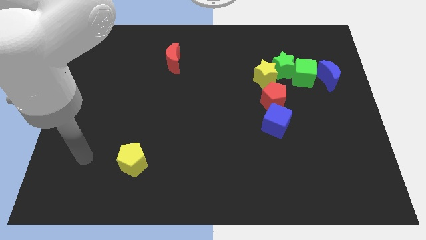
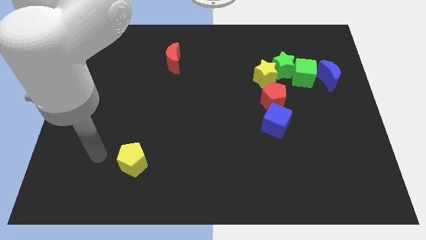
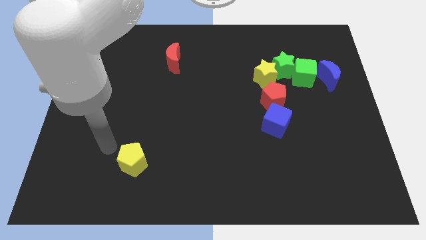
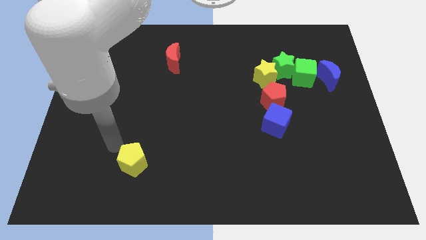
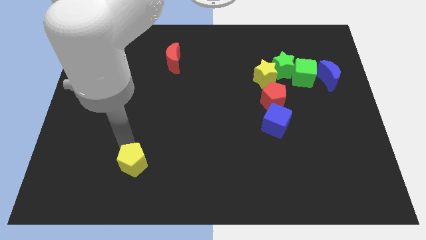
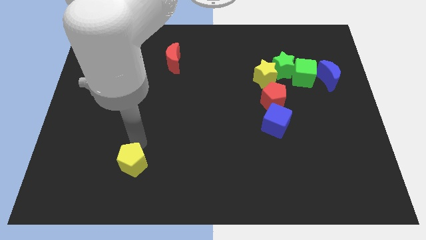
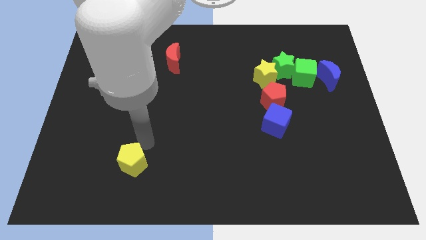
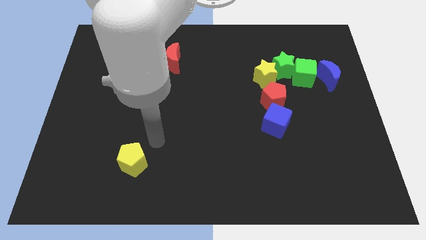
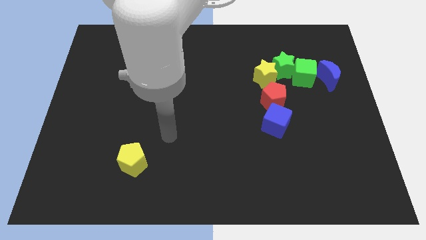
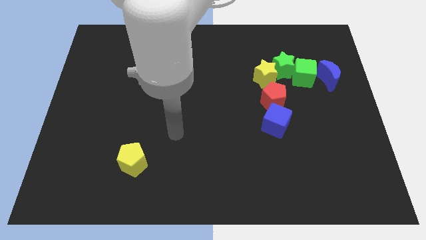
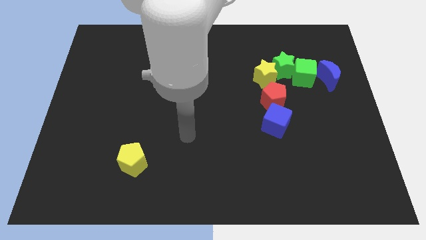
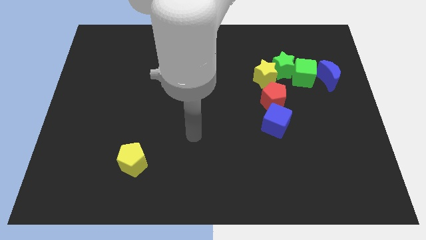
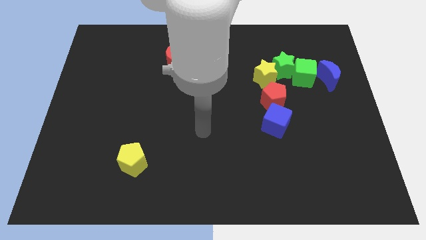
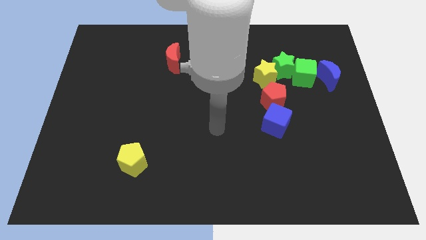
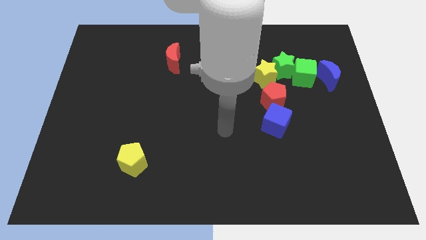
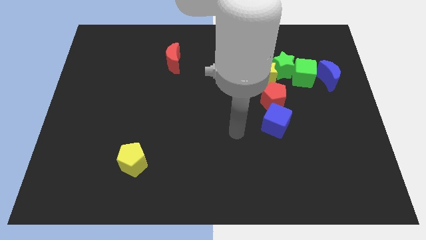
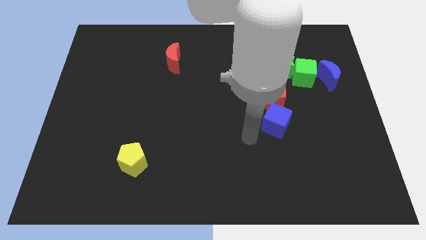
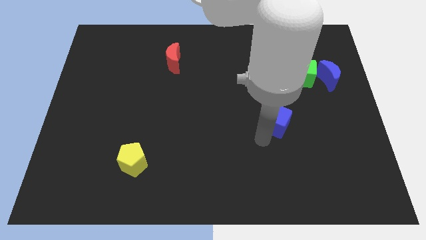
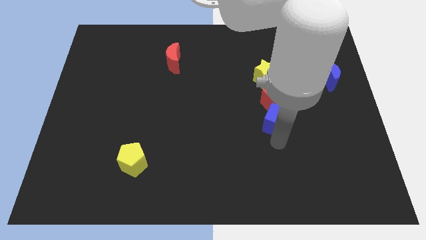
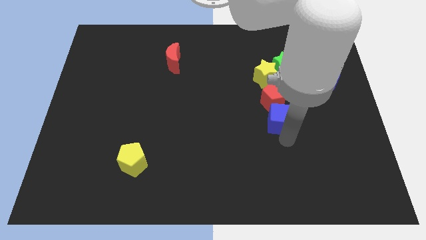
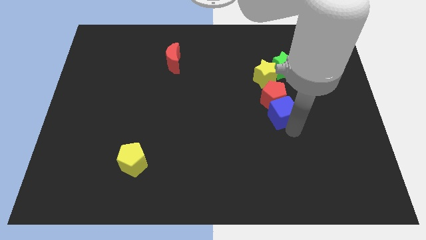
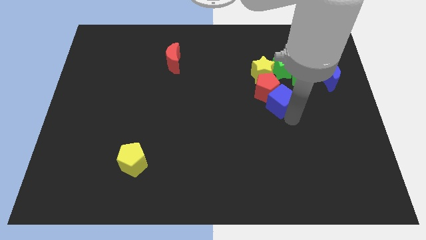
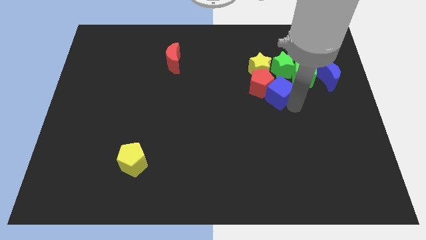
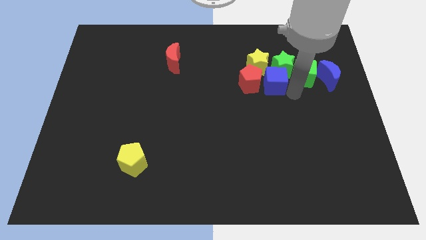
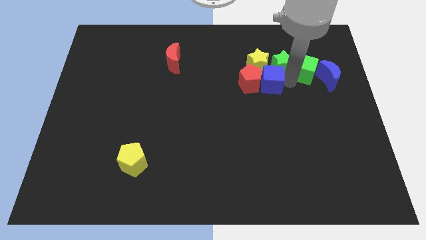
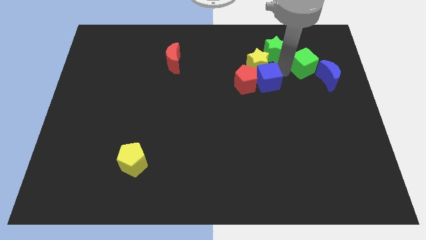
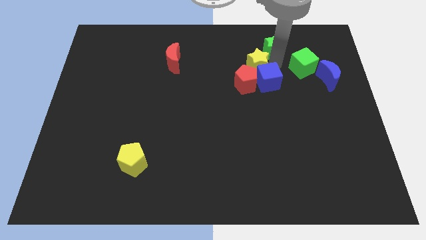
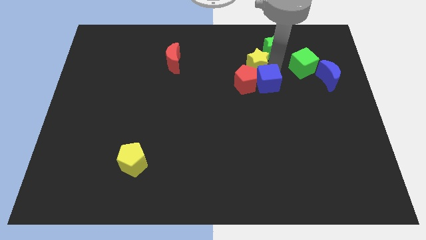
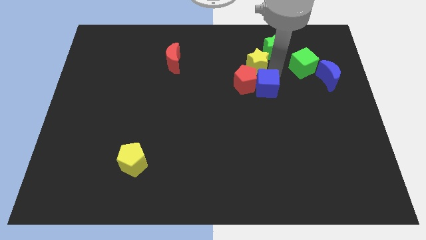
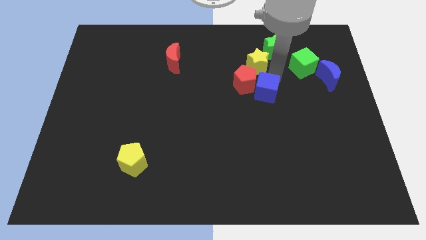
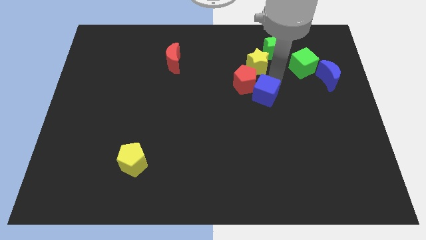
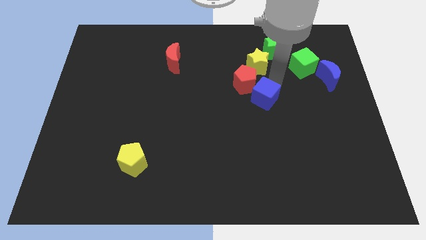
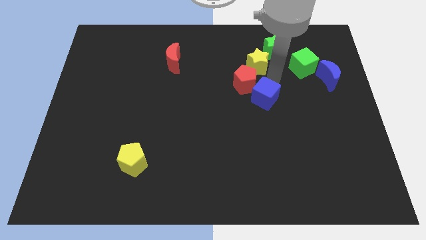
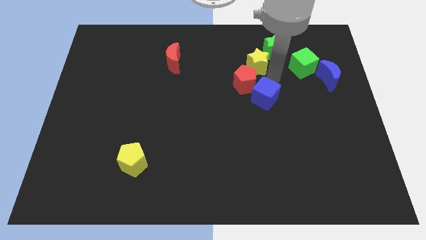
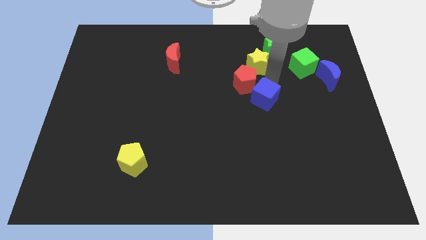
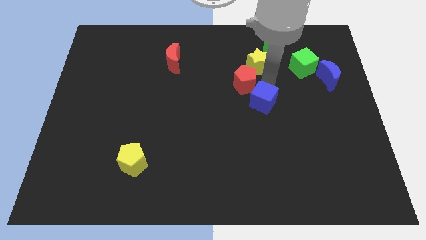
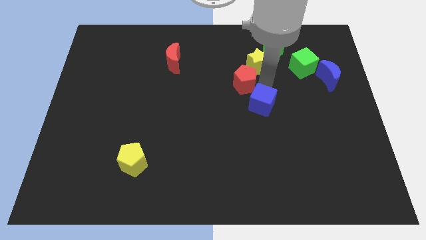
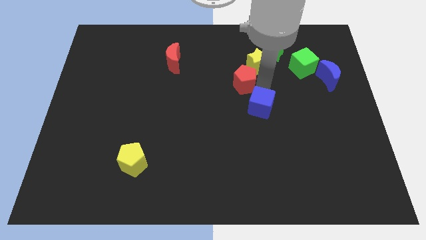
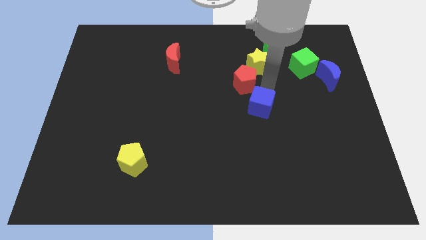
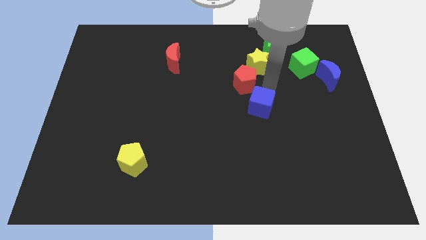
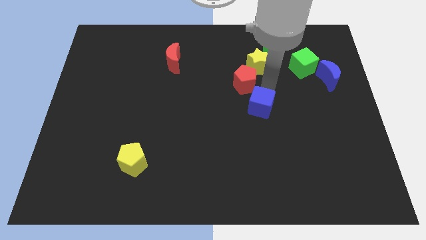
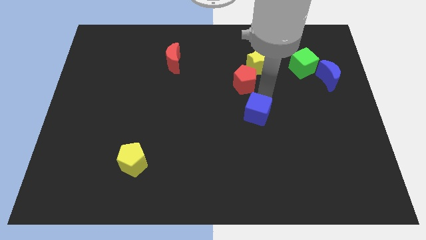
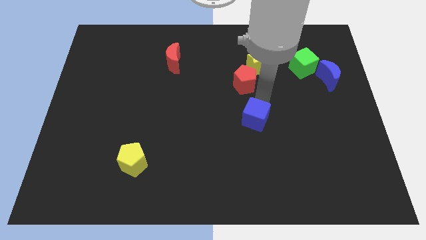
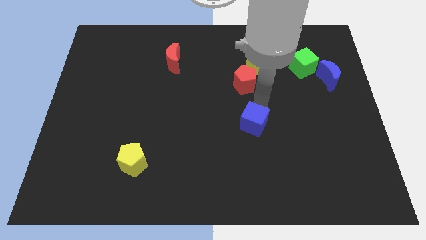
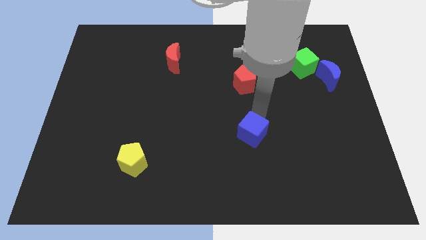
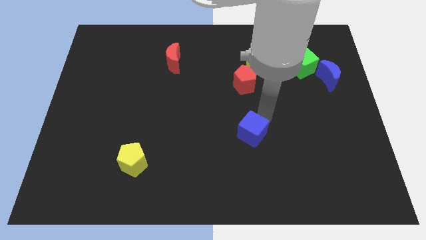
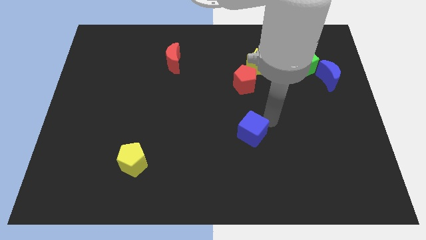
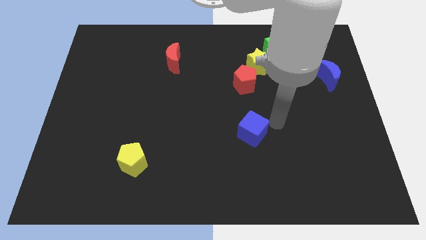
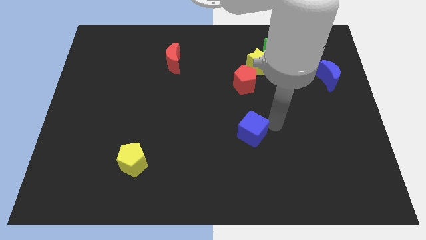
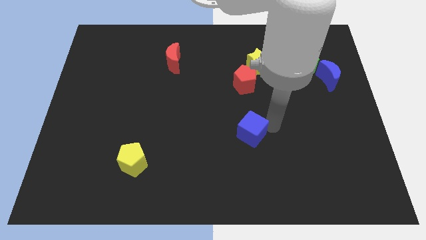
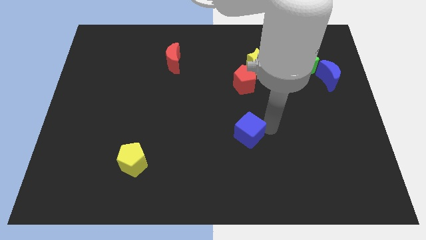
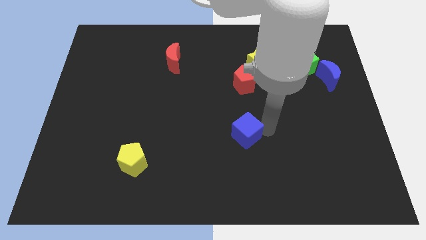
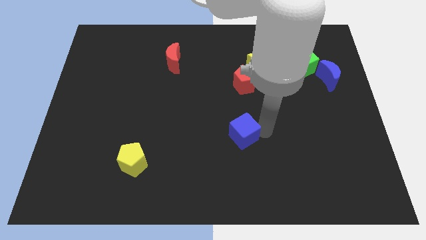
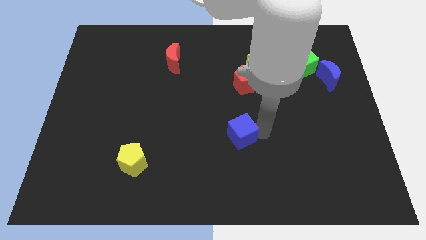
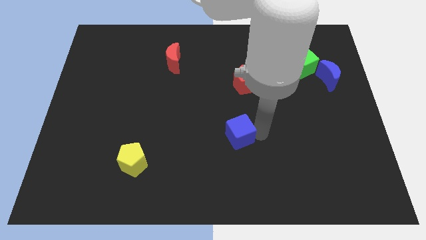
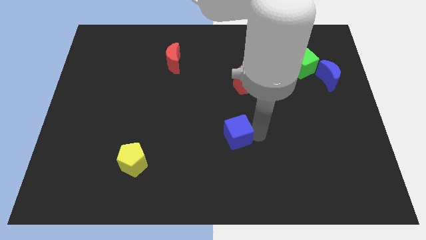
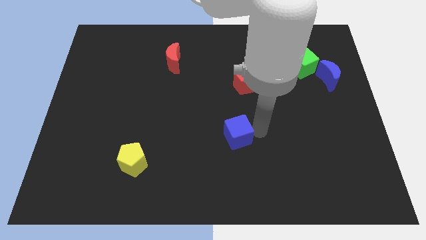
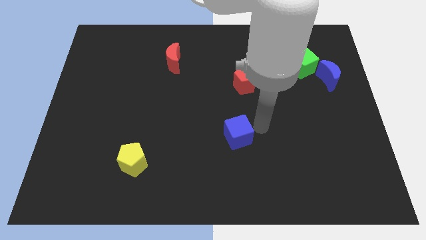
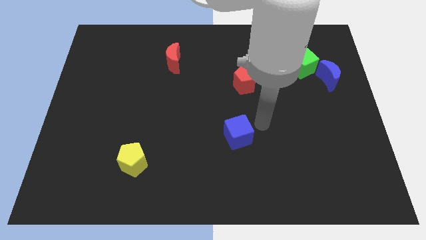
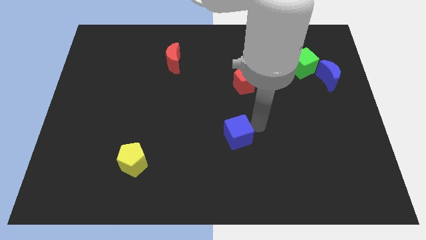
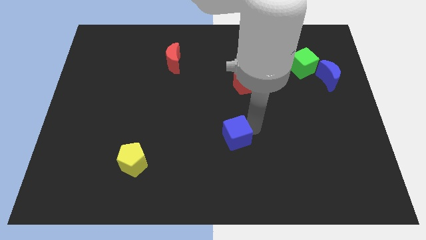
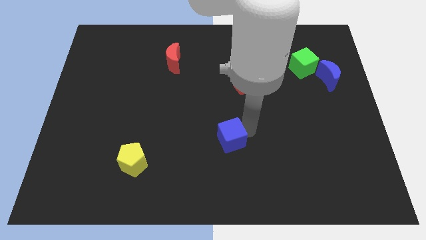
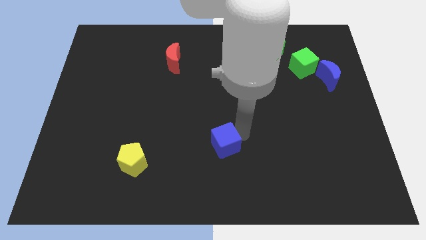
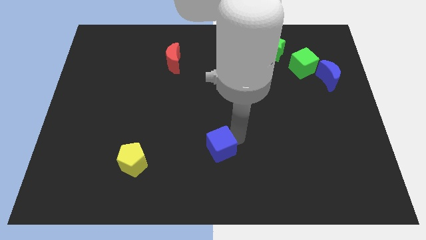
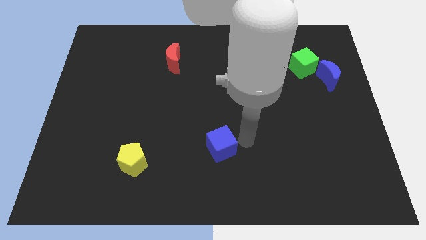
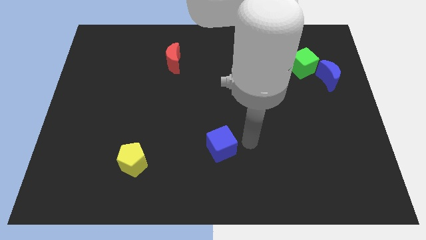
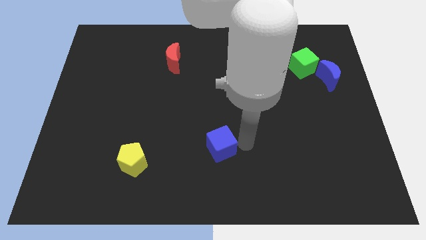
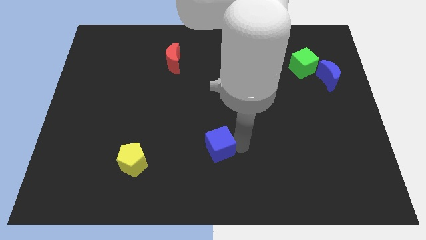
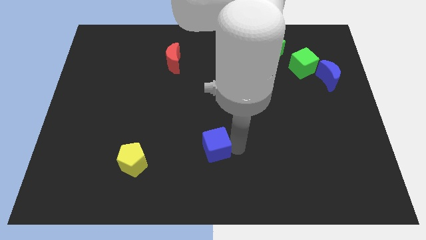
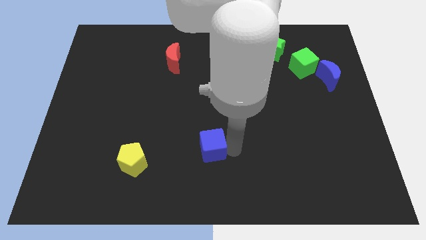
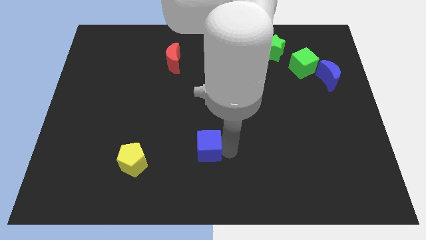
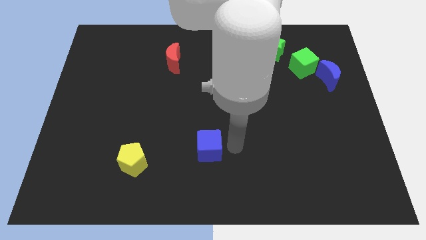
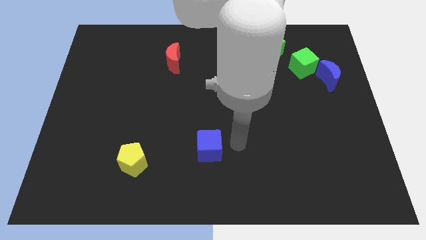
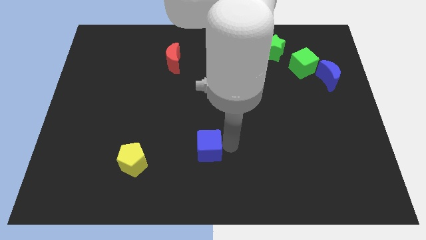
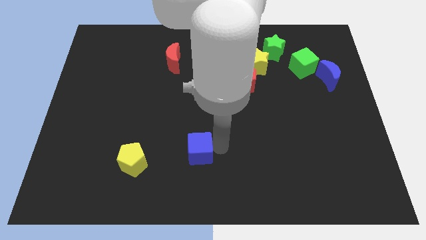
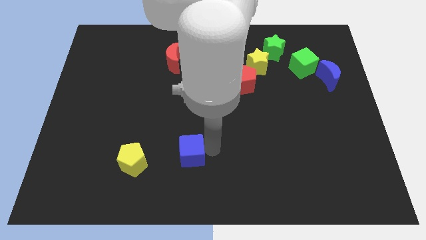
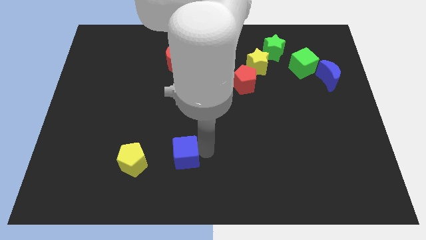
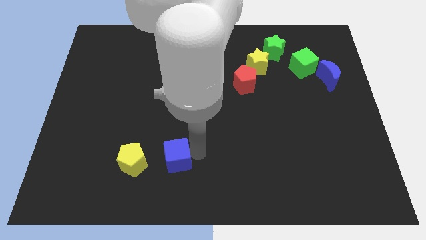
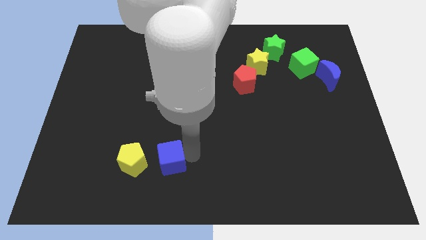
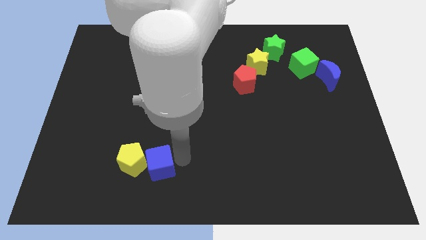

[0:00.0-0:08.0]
move the blue cube next to the yellow pentagon
